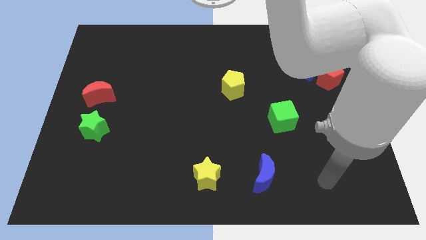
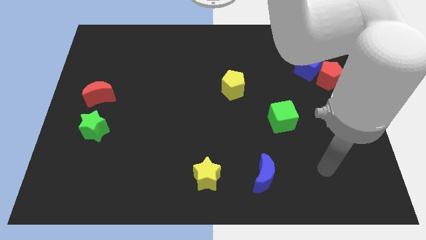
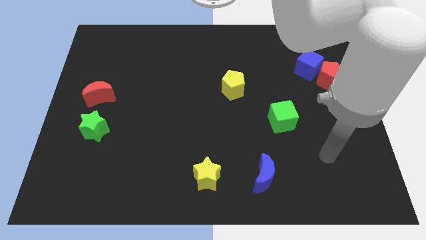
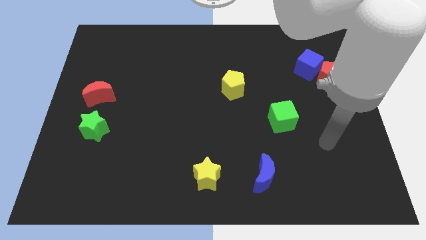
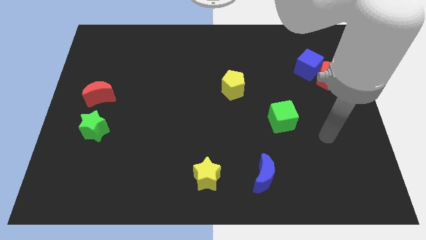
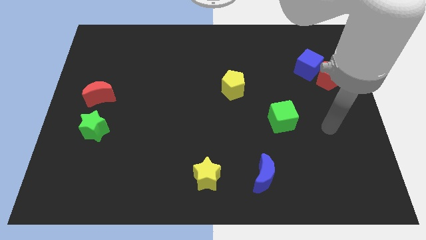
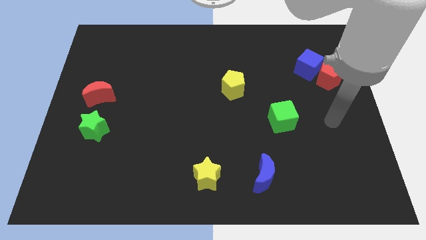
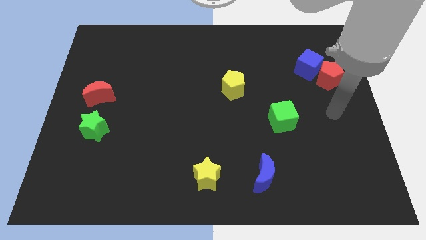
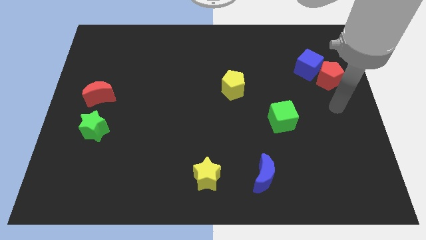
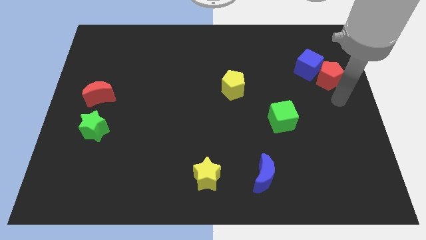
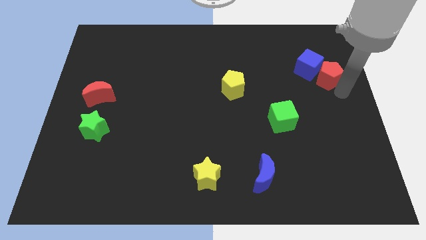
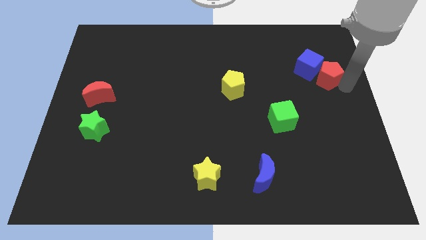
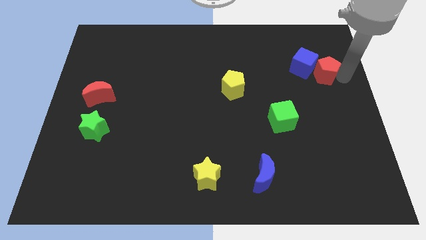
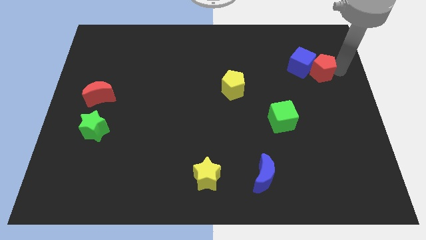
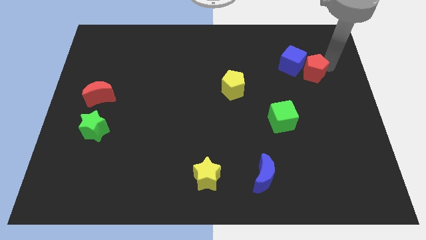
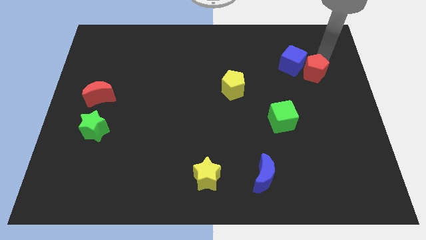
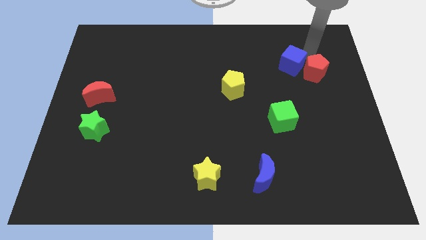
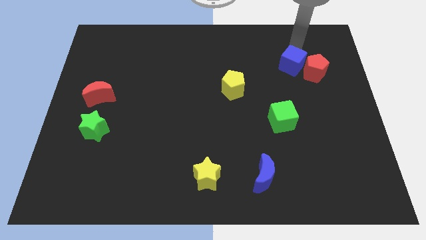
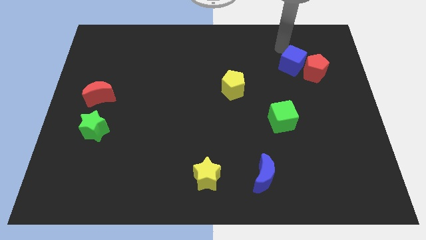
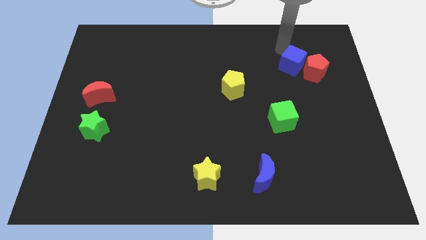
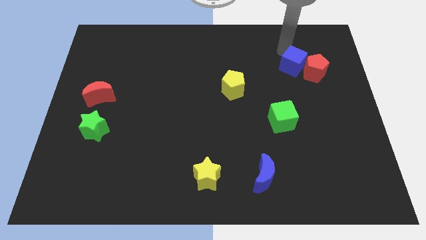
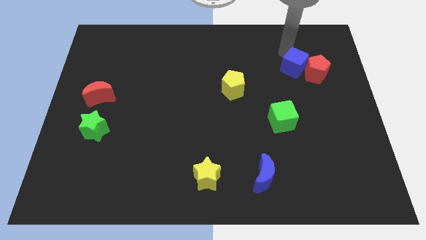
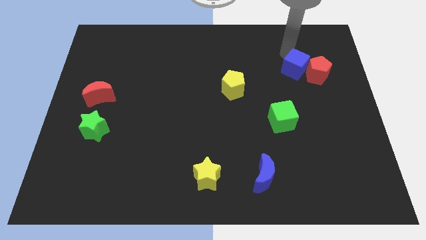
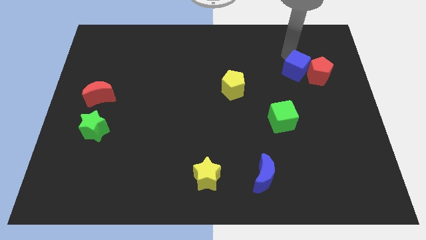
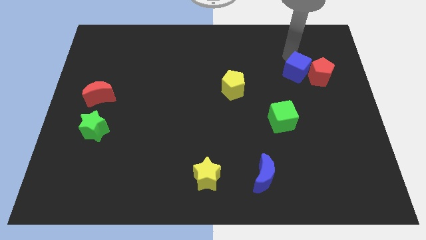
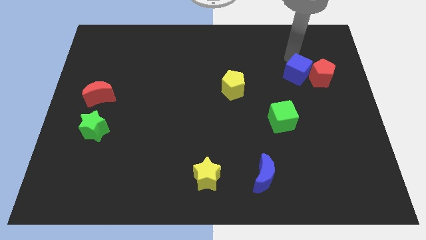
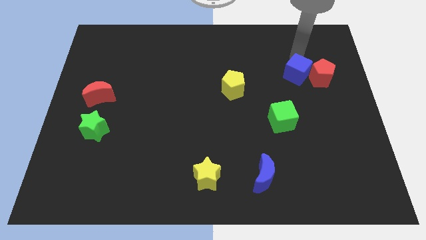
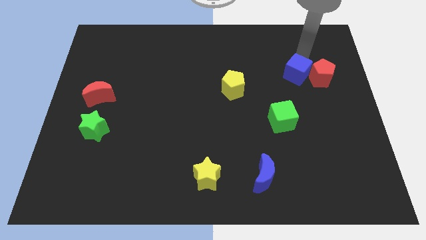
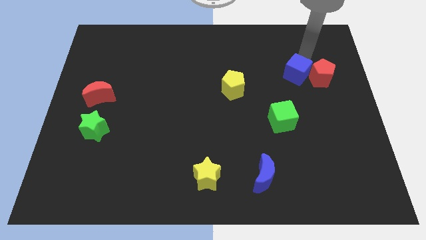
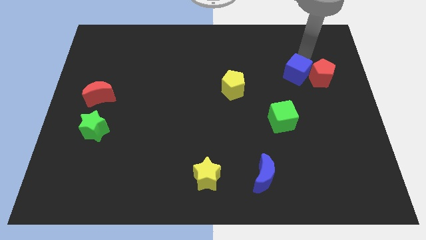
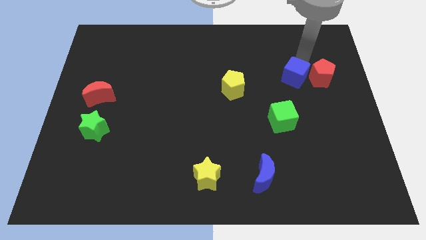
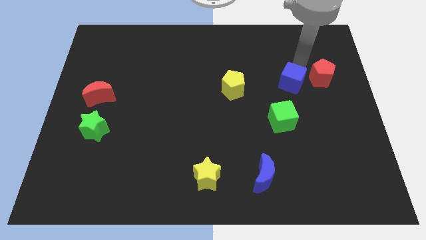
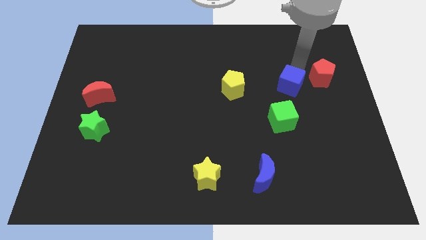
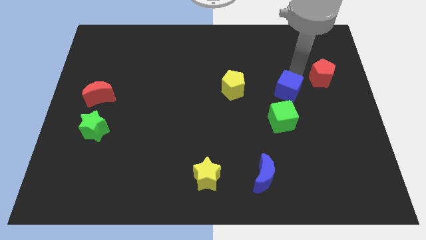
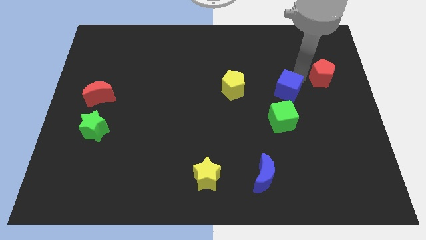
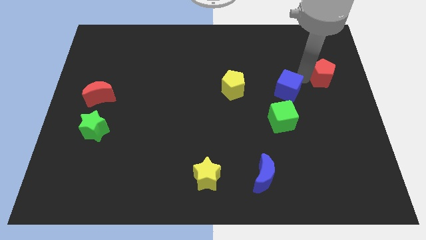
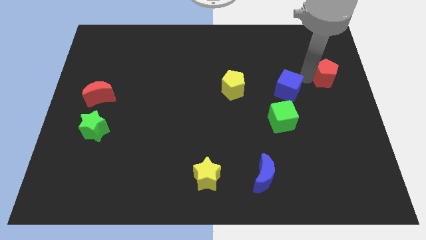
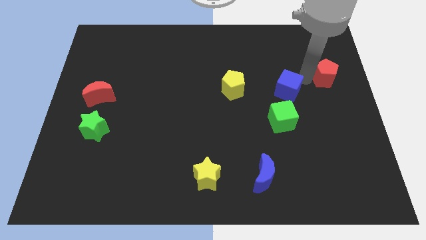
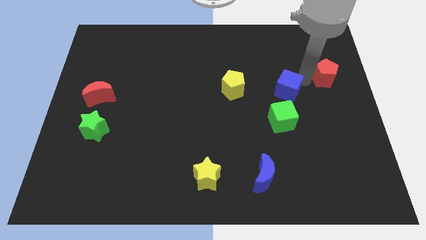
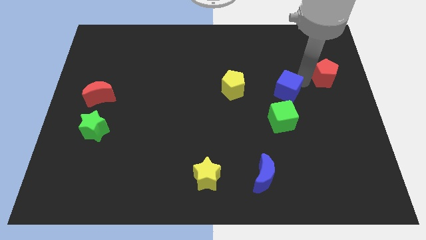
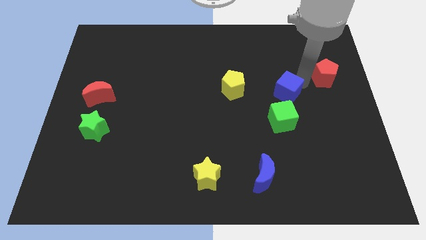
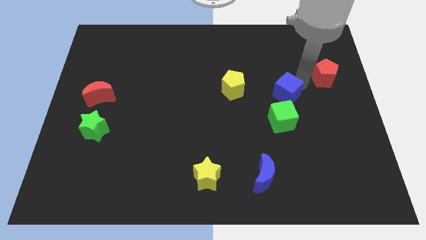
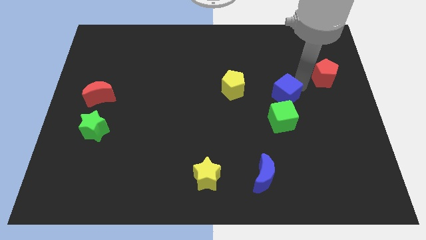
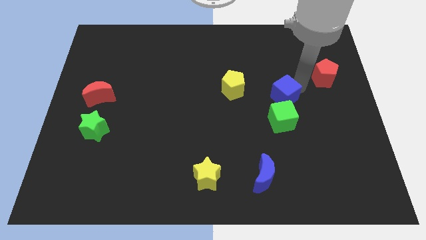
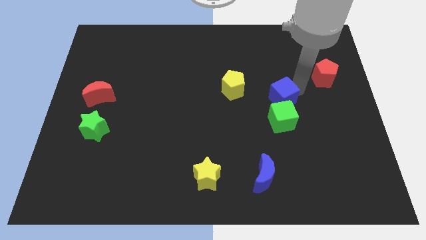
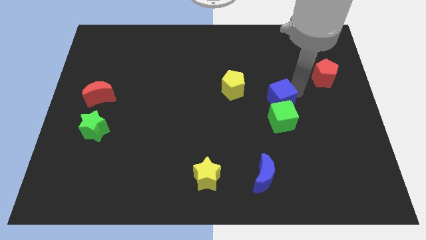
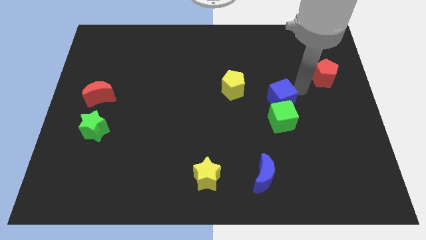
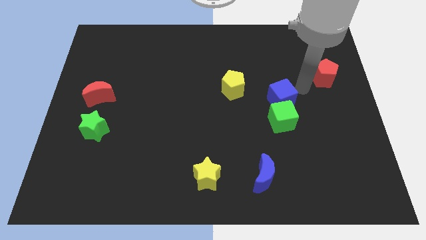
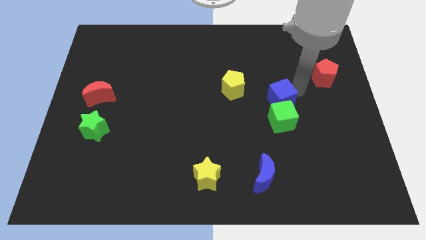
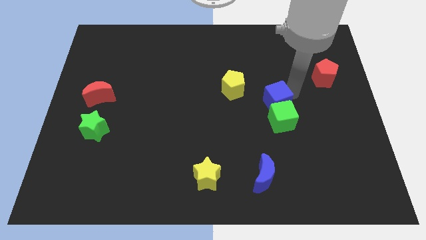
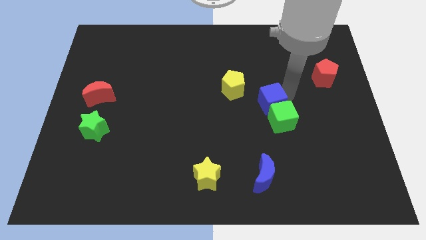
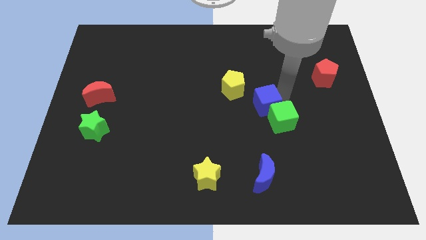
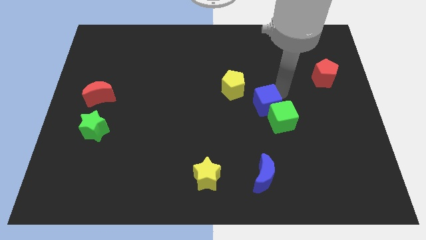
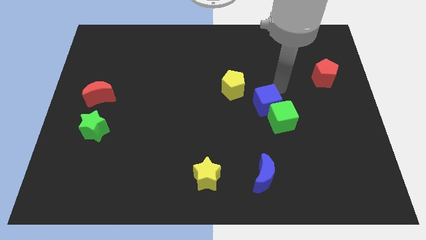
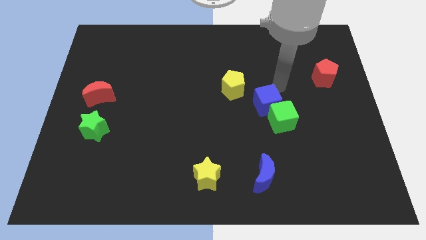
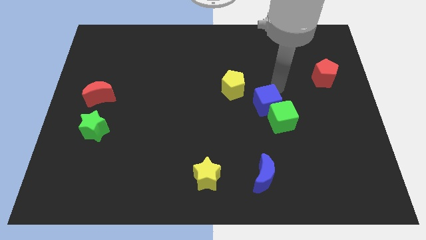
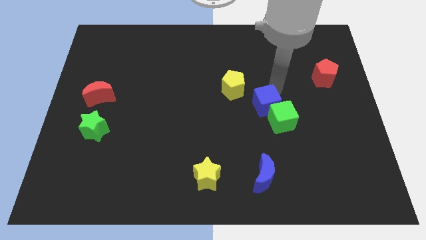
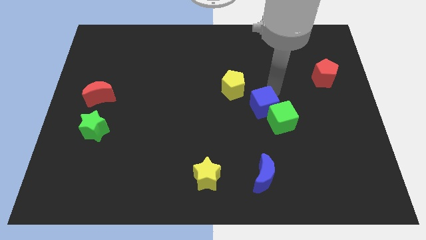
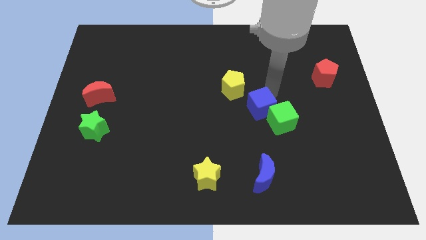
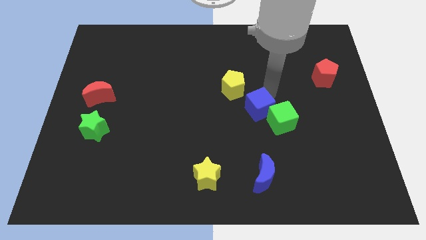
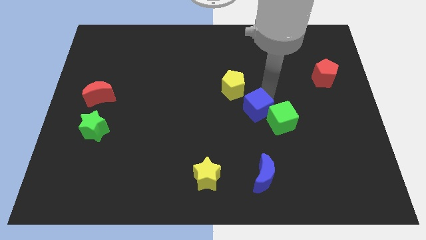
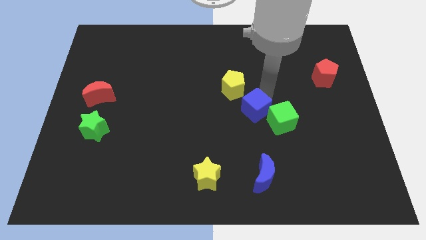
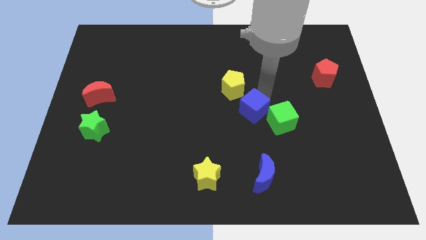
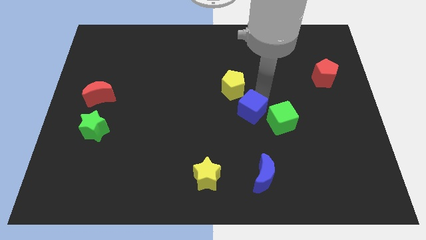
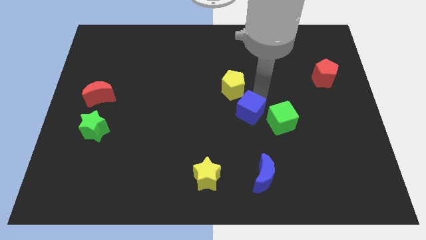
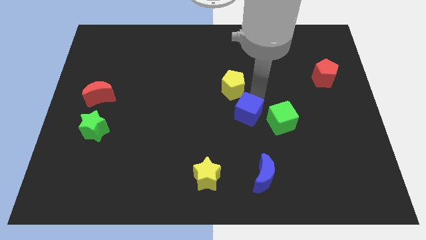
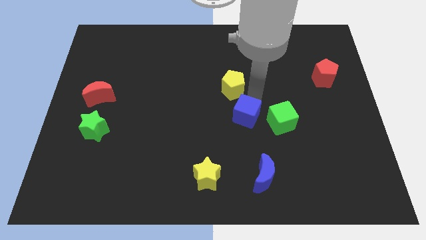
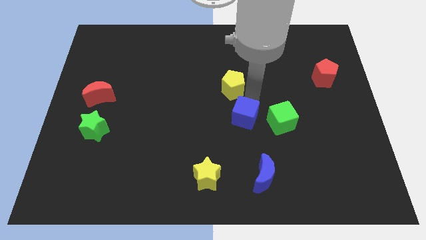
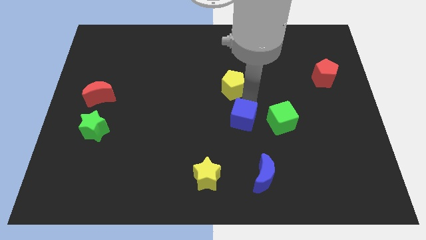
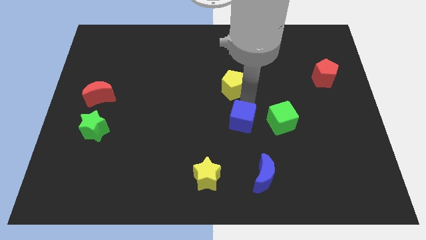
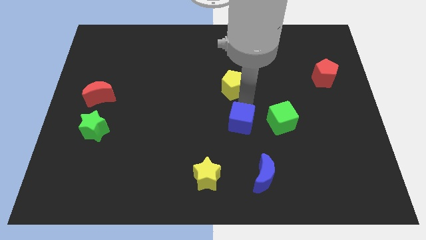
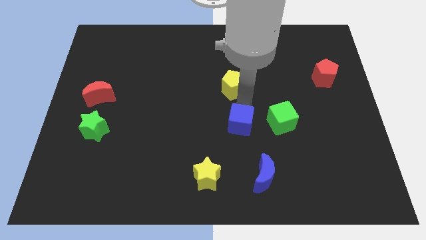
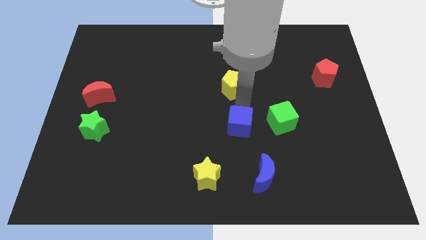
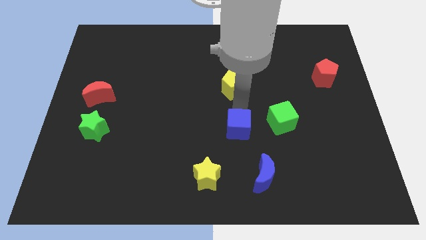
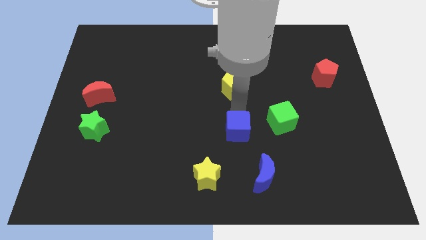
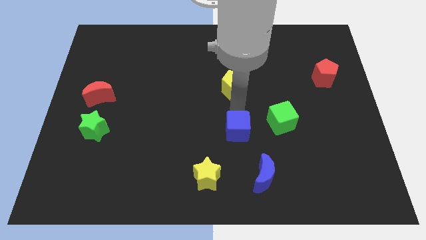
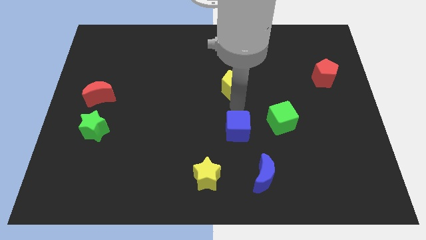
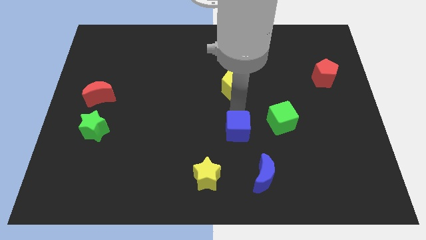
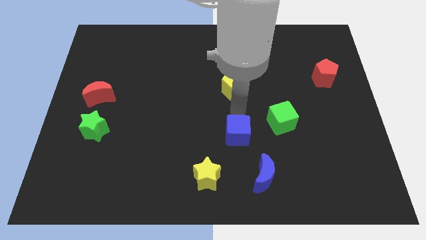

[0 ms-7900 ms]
move the blue cube diagonally up and to the left of the blue moon
